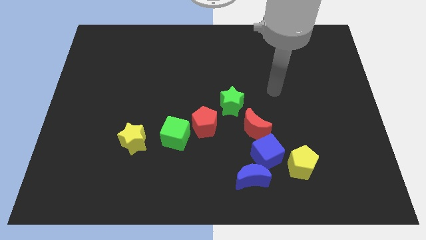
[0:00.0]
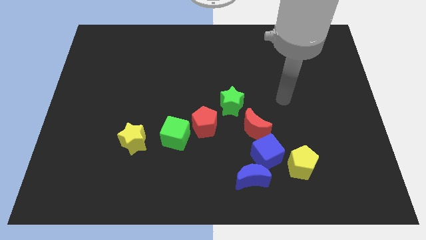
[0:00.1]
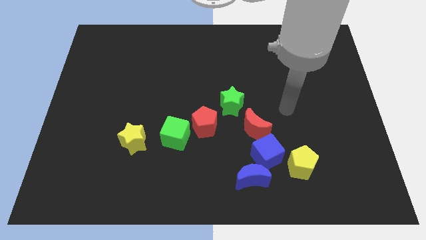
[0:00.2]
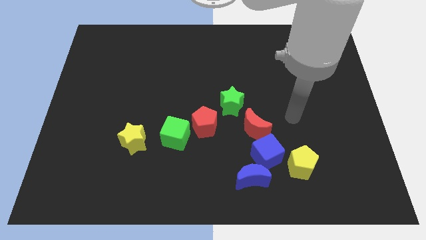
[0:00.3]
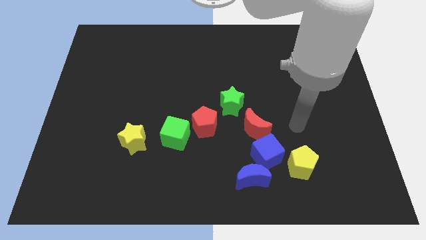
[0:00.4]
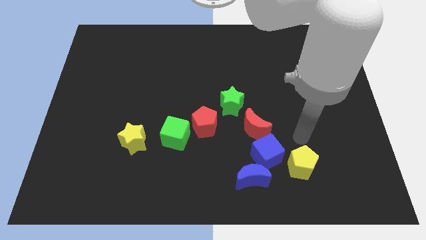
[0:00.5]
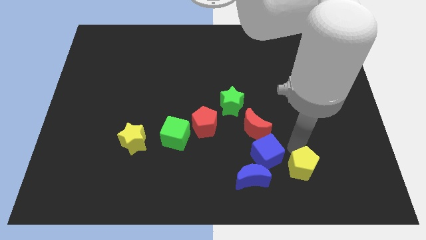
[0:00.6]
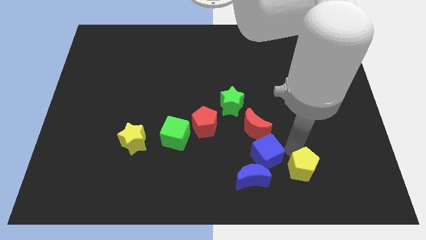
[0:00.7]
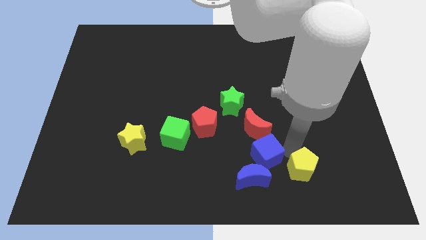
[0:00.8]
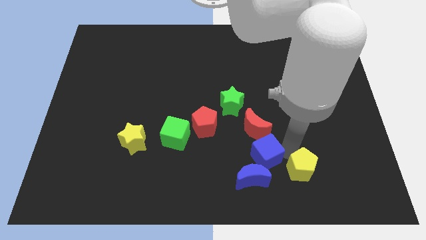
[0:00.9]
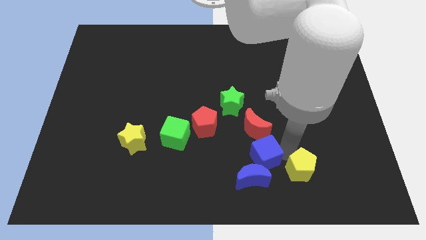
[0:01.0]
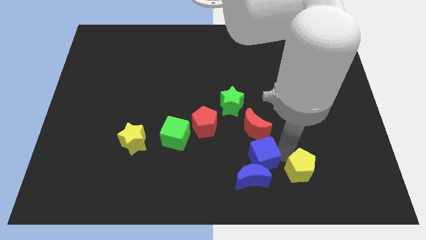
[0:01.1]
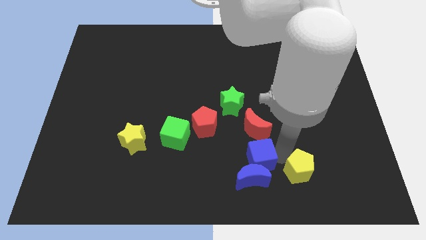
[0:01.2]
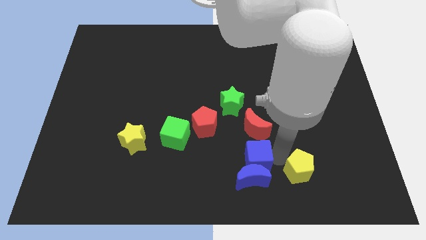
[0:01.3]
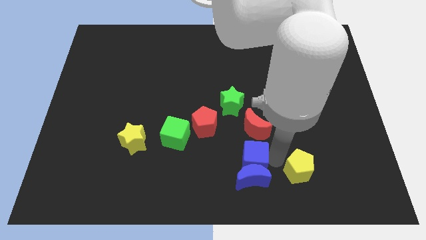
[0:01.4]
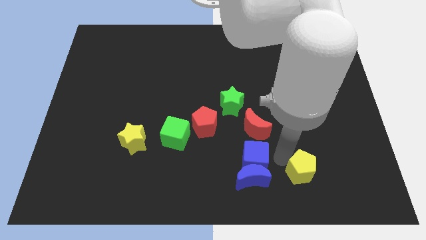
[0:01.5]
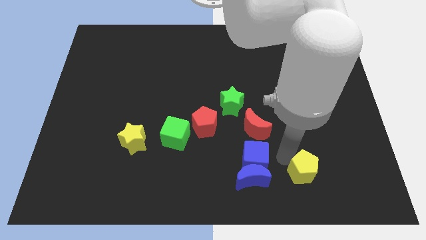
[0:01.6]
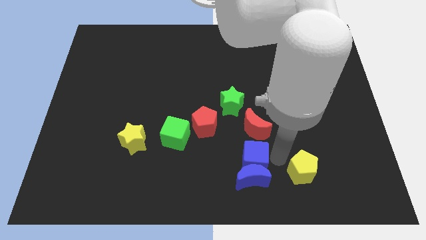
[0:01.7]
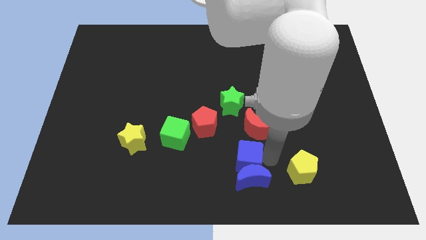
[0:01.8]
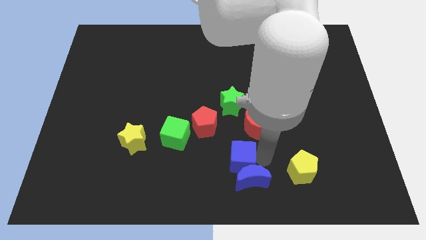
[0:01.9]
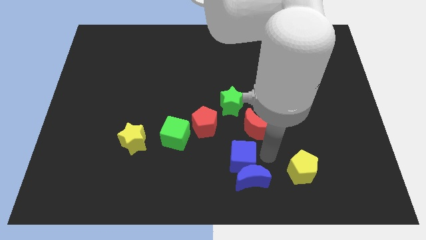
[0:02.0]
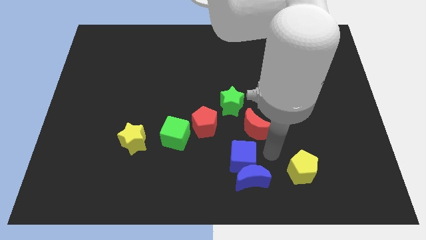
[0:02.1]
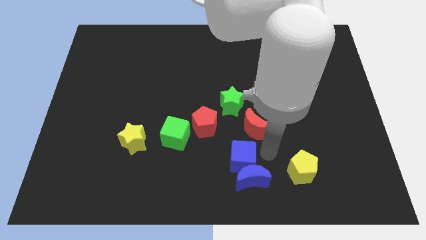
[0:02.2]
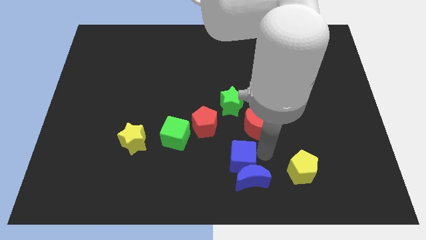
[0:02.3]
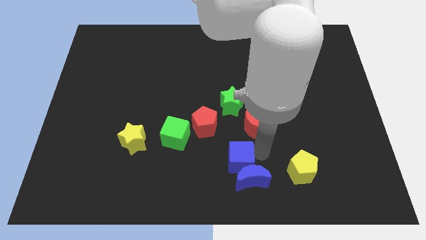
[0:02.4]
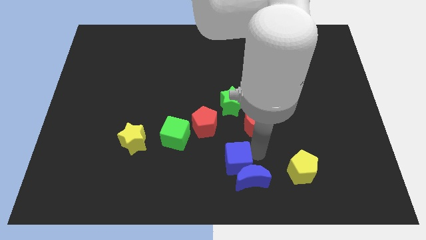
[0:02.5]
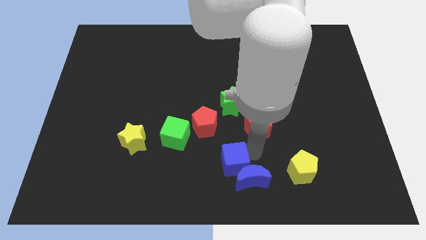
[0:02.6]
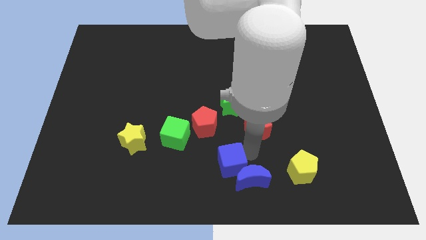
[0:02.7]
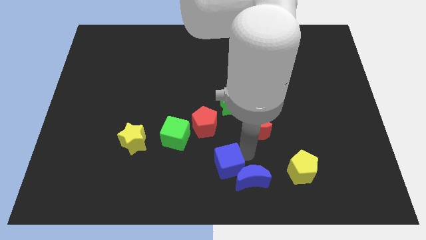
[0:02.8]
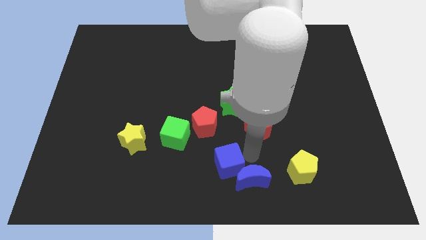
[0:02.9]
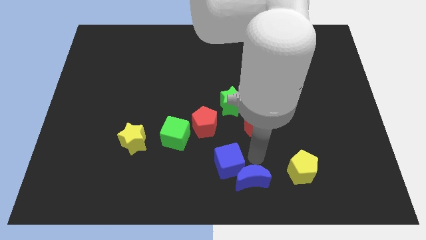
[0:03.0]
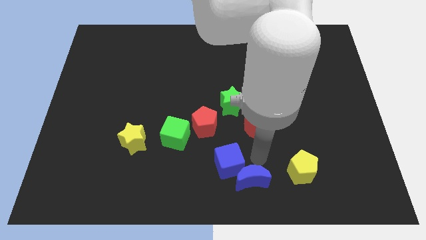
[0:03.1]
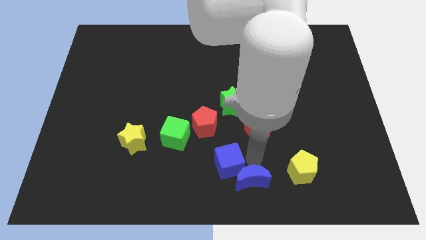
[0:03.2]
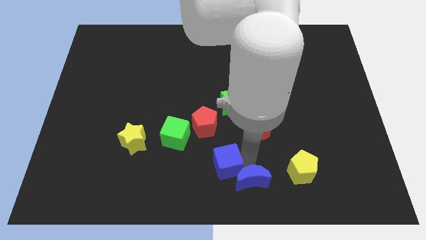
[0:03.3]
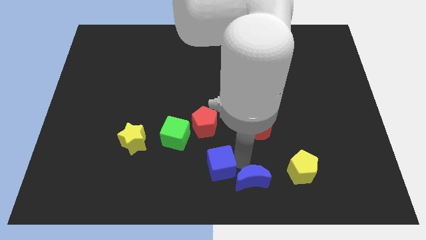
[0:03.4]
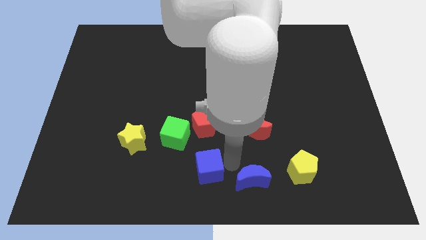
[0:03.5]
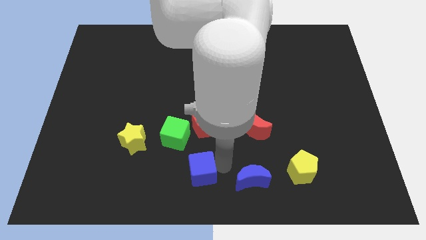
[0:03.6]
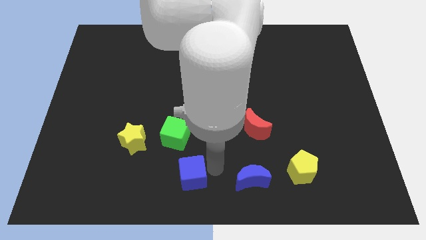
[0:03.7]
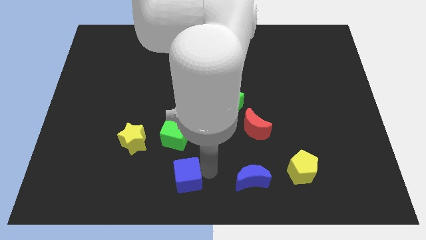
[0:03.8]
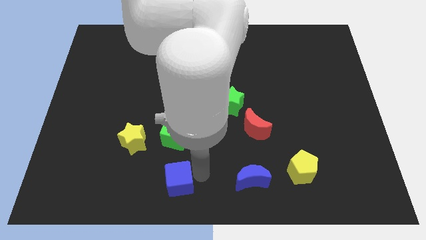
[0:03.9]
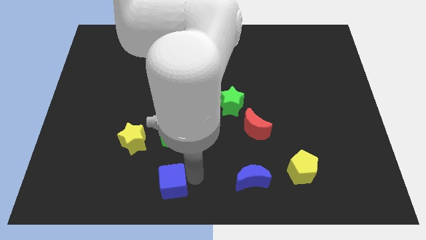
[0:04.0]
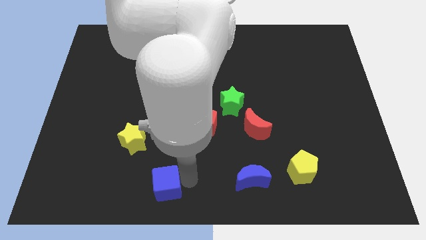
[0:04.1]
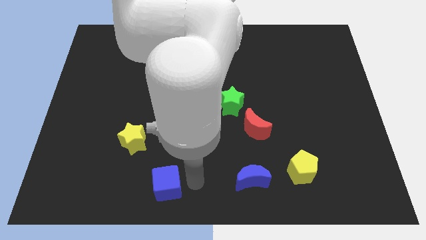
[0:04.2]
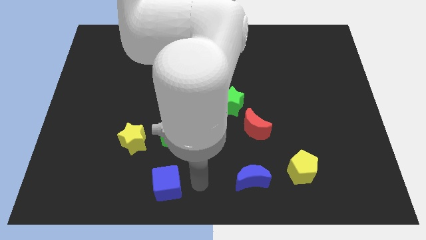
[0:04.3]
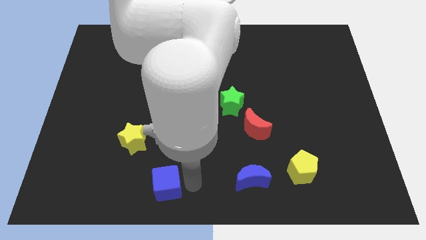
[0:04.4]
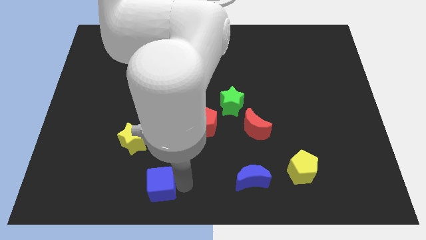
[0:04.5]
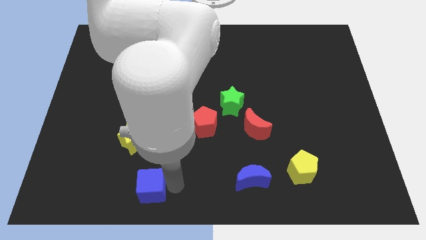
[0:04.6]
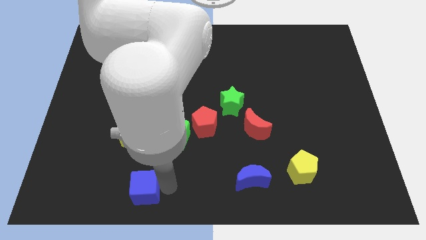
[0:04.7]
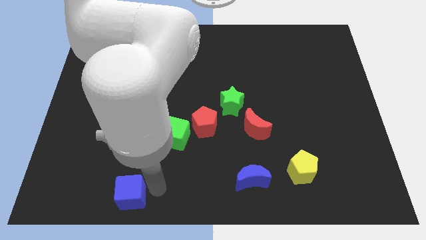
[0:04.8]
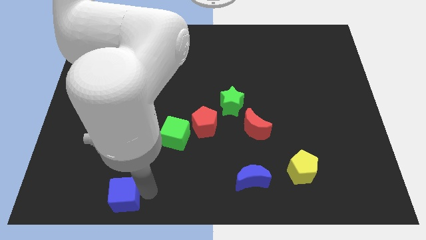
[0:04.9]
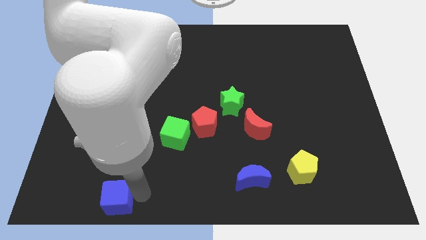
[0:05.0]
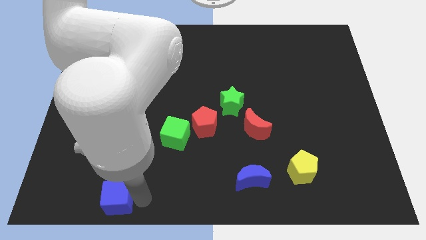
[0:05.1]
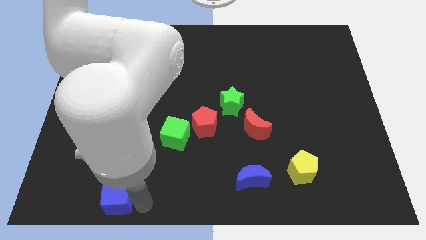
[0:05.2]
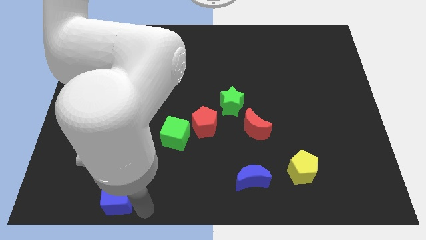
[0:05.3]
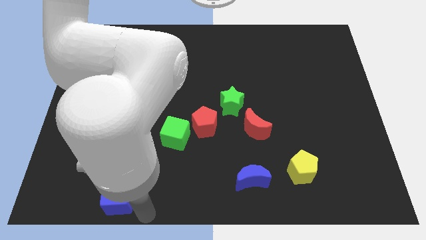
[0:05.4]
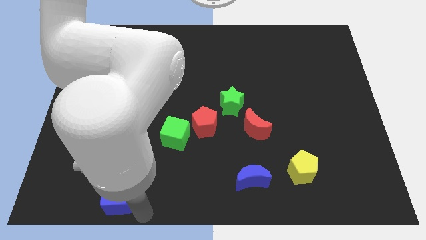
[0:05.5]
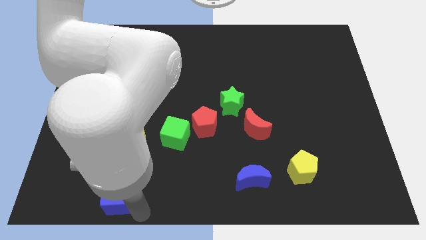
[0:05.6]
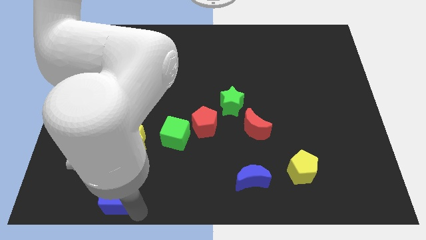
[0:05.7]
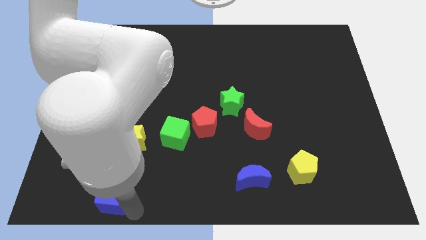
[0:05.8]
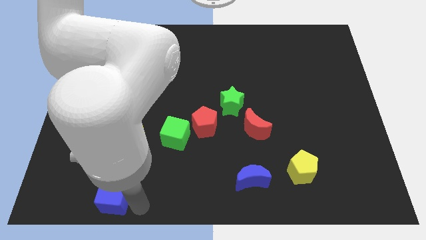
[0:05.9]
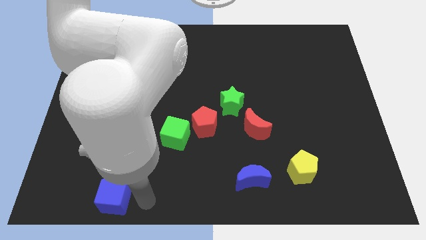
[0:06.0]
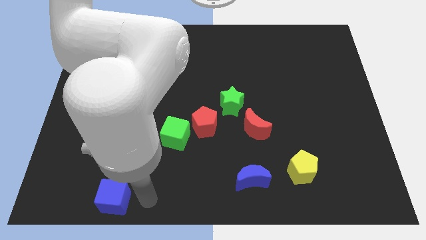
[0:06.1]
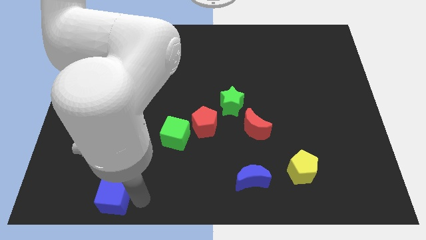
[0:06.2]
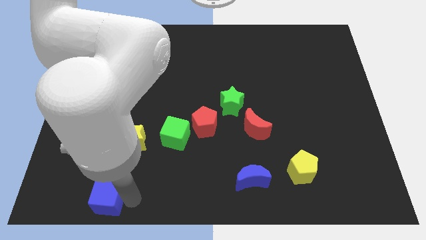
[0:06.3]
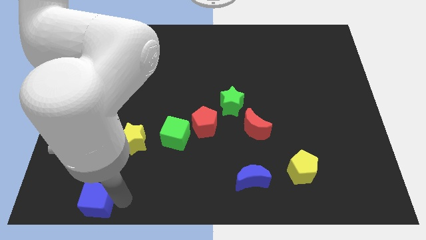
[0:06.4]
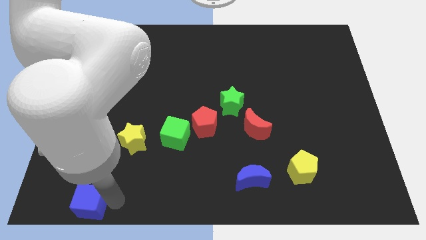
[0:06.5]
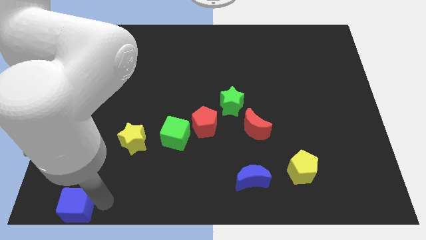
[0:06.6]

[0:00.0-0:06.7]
move the blue cube to the bottom left of the board
